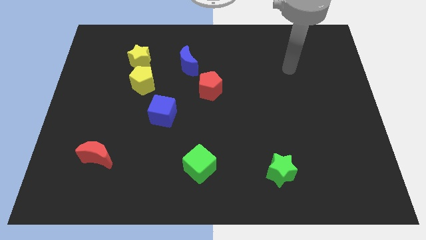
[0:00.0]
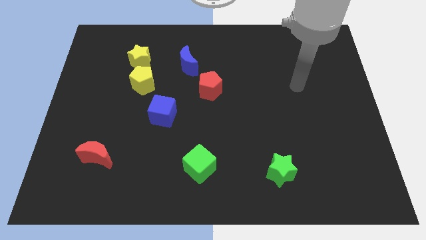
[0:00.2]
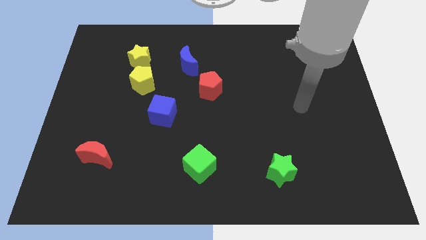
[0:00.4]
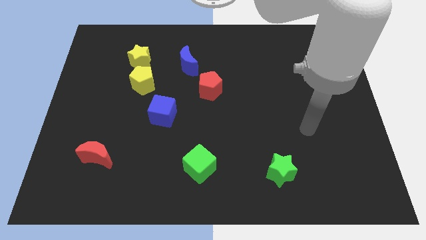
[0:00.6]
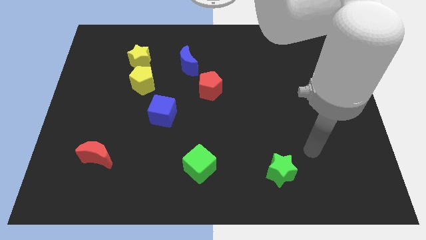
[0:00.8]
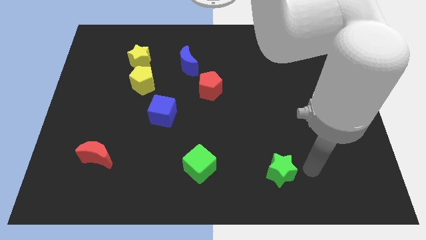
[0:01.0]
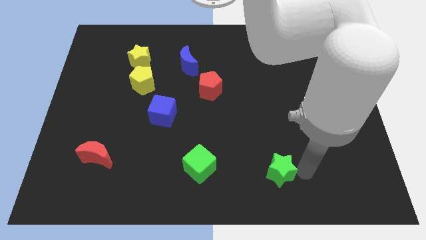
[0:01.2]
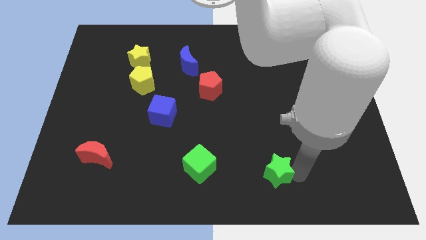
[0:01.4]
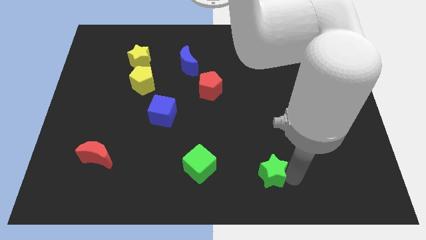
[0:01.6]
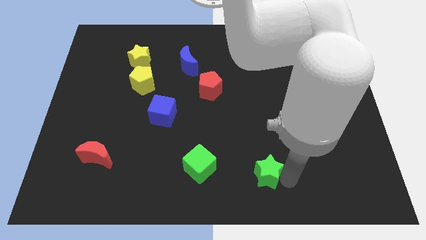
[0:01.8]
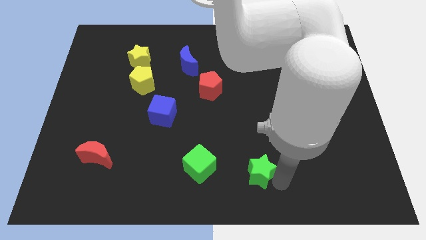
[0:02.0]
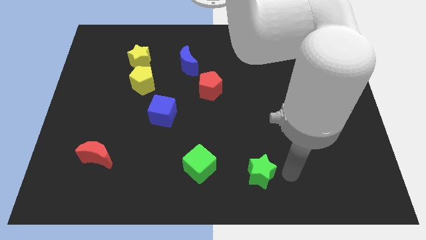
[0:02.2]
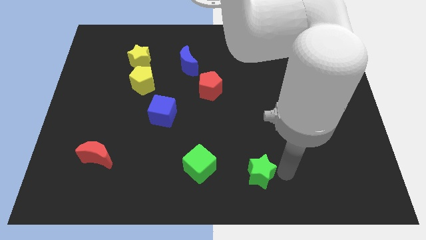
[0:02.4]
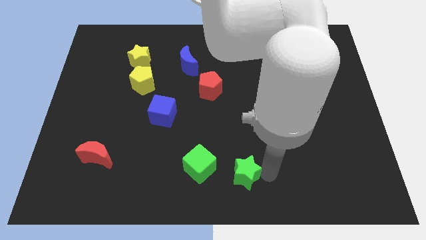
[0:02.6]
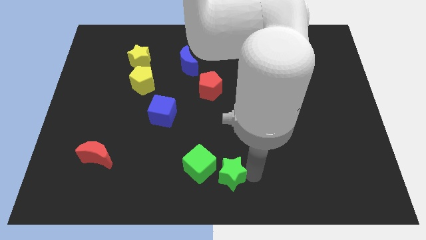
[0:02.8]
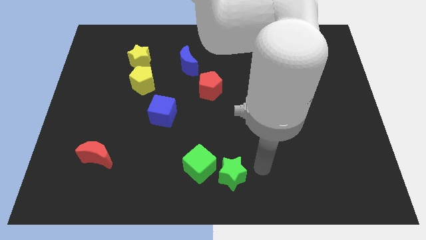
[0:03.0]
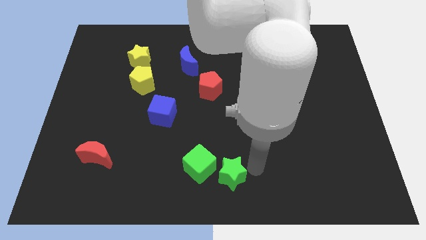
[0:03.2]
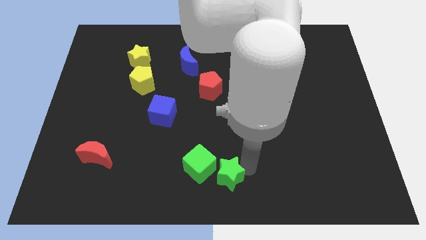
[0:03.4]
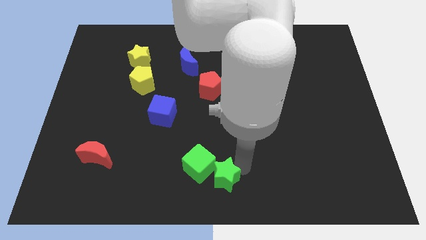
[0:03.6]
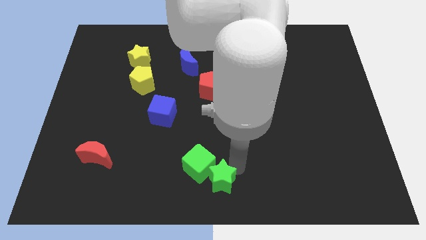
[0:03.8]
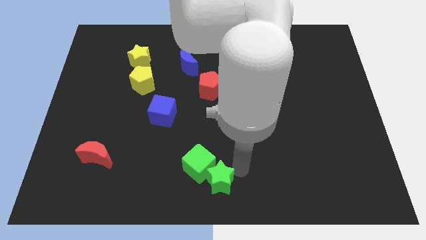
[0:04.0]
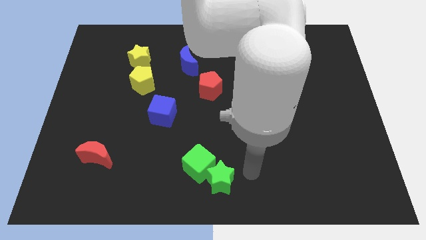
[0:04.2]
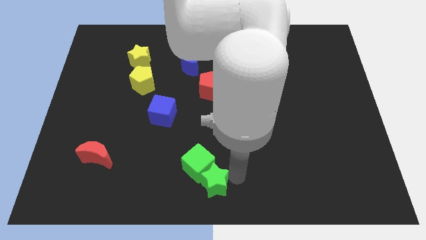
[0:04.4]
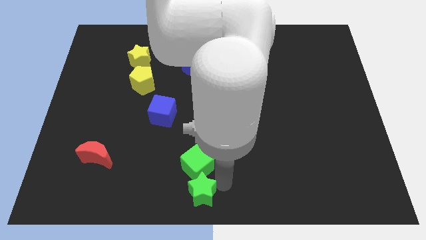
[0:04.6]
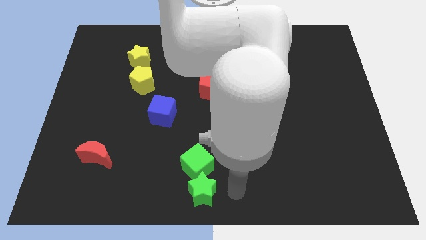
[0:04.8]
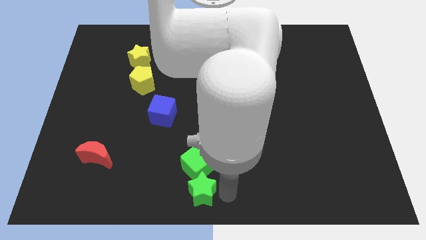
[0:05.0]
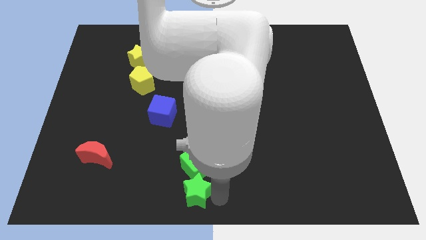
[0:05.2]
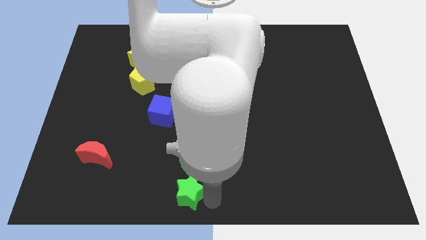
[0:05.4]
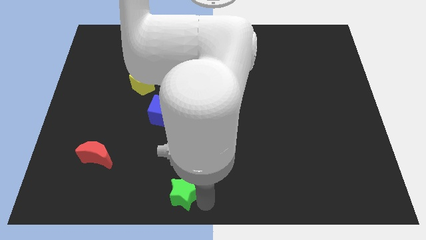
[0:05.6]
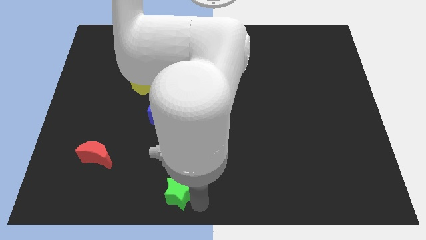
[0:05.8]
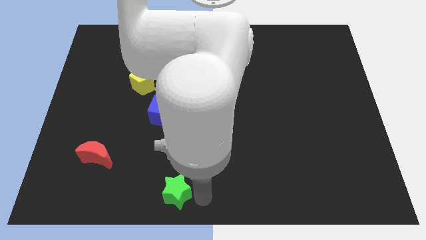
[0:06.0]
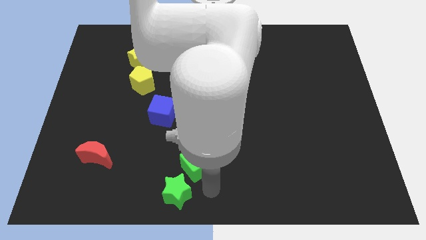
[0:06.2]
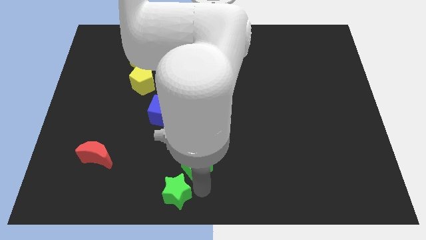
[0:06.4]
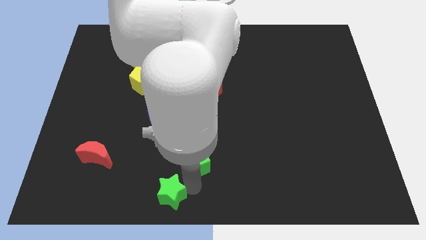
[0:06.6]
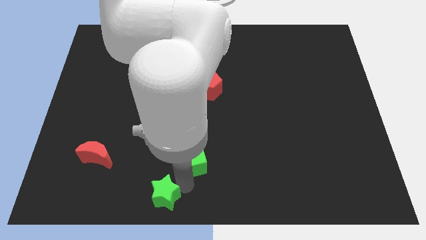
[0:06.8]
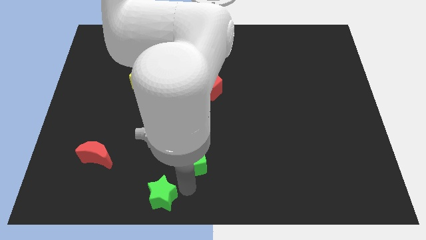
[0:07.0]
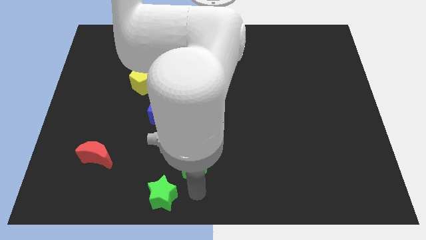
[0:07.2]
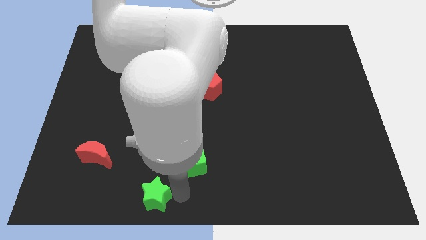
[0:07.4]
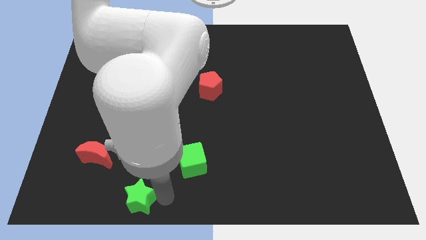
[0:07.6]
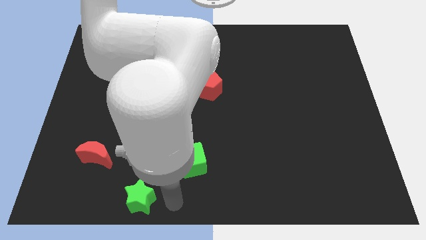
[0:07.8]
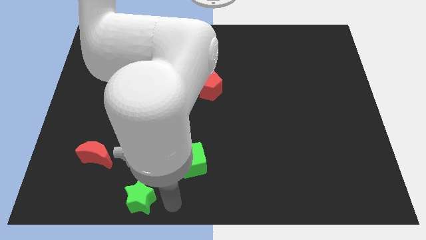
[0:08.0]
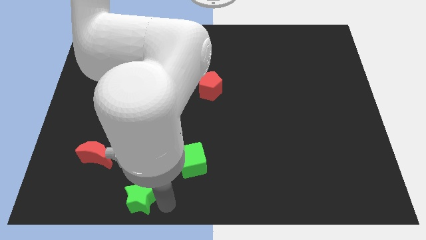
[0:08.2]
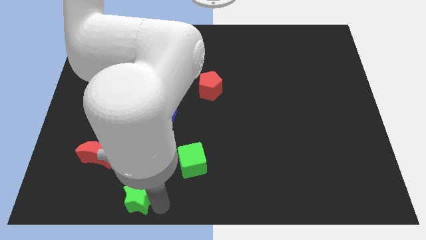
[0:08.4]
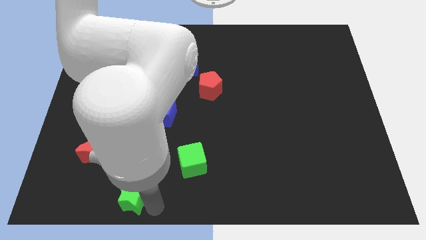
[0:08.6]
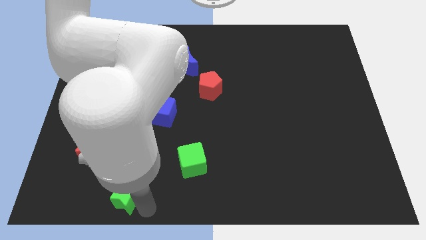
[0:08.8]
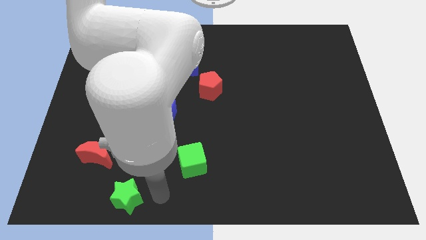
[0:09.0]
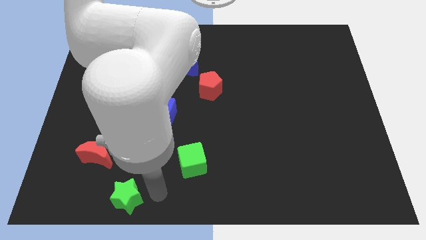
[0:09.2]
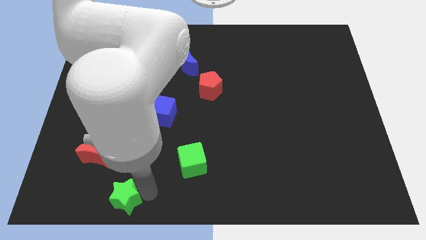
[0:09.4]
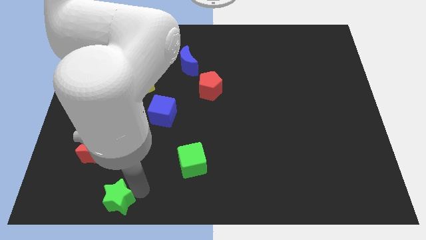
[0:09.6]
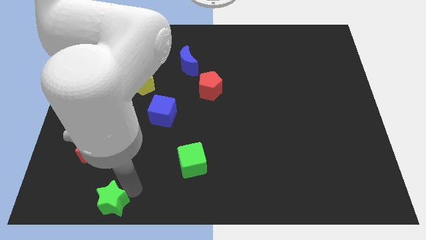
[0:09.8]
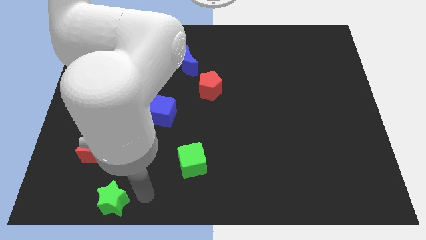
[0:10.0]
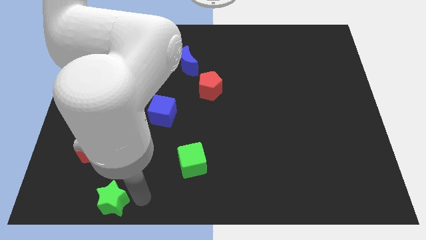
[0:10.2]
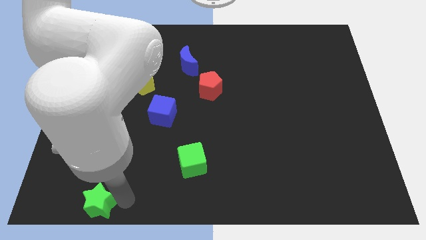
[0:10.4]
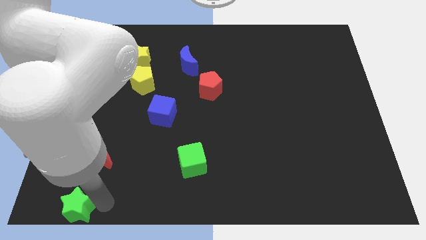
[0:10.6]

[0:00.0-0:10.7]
put the green star to the bottom left of the board

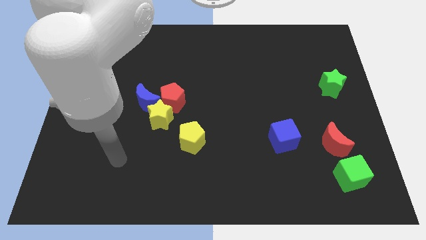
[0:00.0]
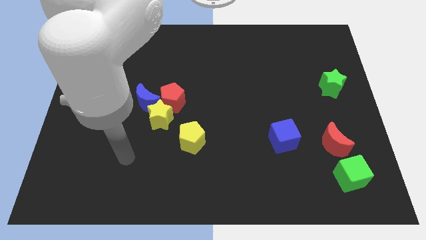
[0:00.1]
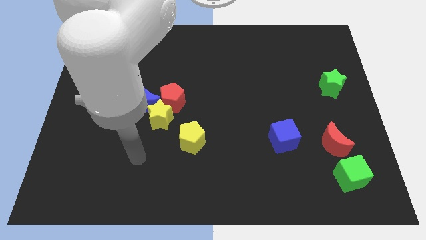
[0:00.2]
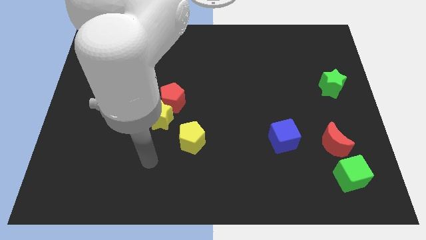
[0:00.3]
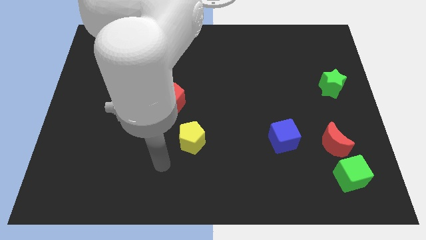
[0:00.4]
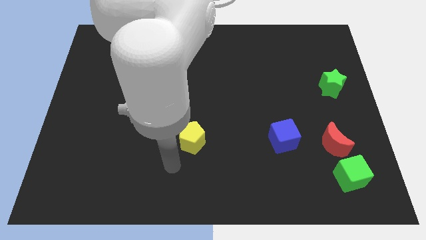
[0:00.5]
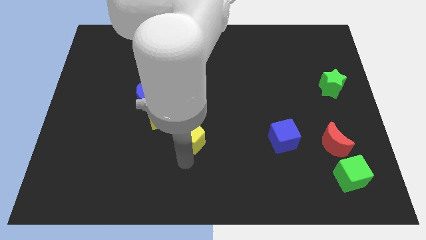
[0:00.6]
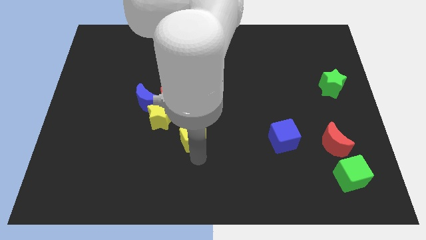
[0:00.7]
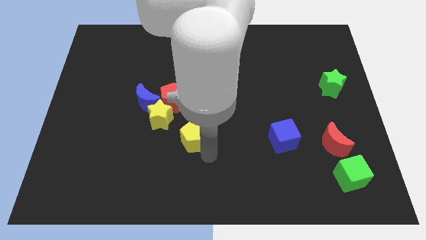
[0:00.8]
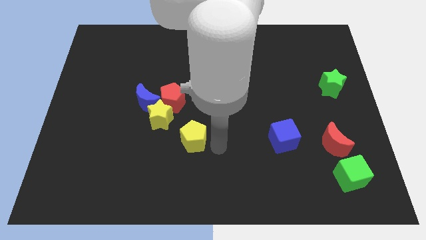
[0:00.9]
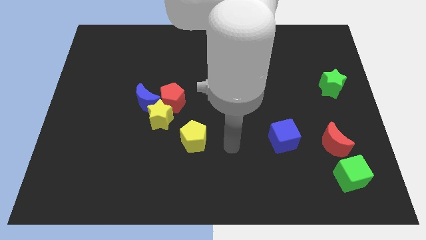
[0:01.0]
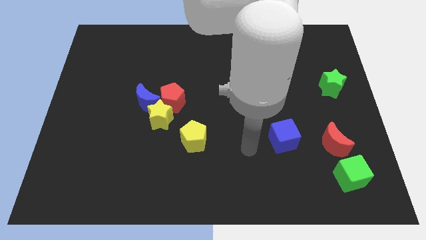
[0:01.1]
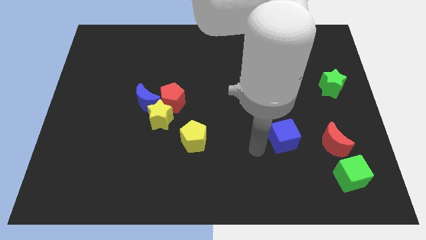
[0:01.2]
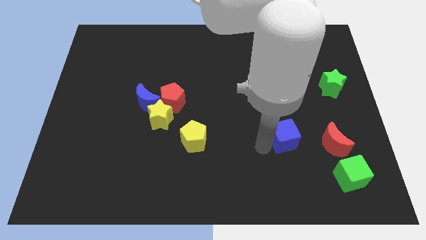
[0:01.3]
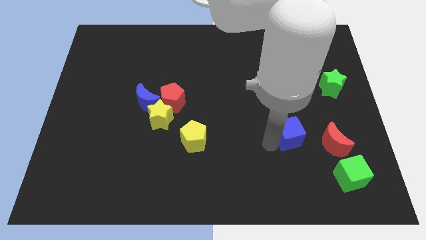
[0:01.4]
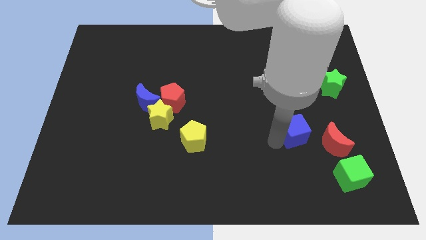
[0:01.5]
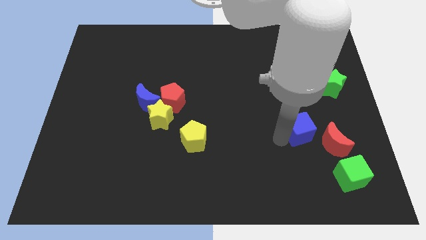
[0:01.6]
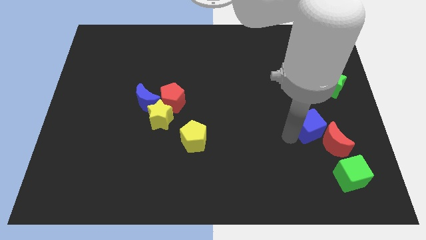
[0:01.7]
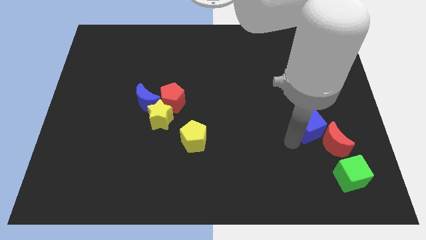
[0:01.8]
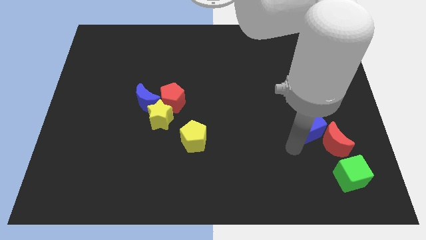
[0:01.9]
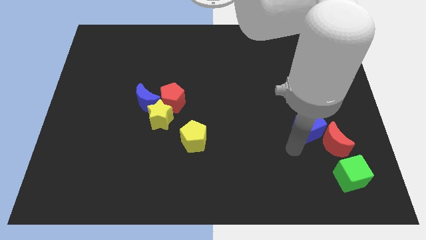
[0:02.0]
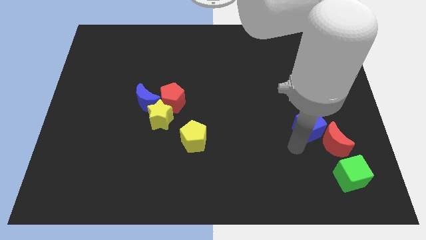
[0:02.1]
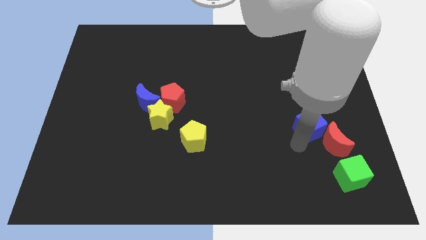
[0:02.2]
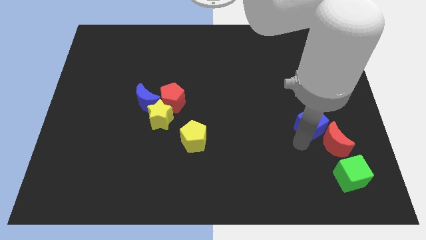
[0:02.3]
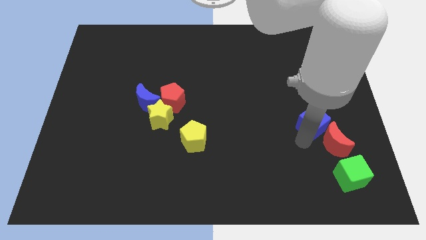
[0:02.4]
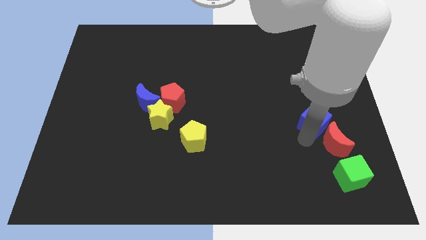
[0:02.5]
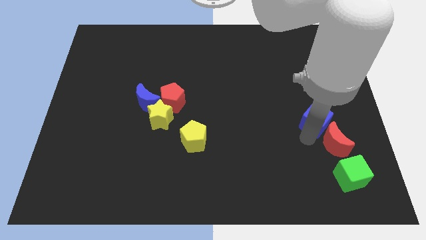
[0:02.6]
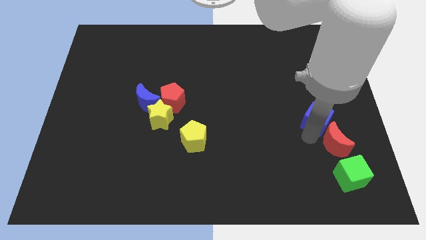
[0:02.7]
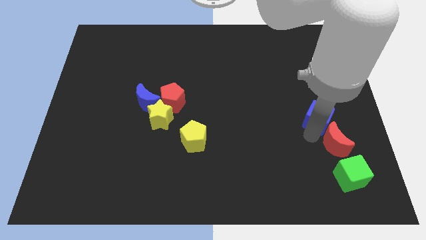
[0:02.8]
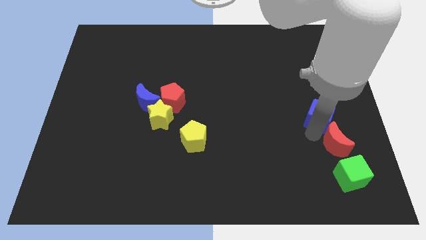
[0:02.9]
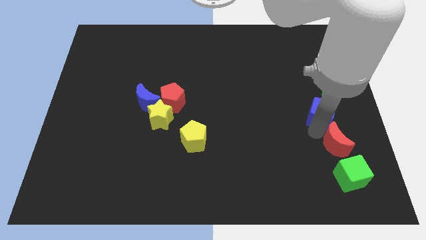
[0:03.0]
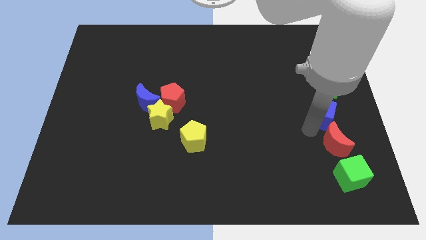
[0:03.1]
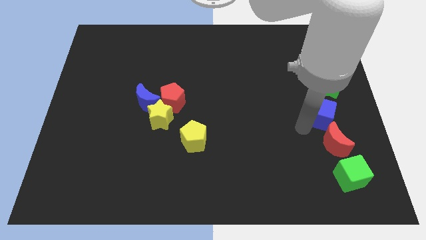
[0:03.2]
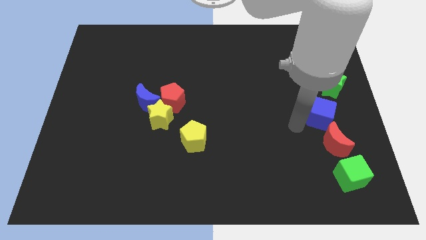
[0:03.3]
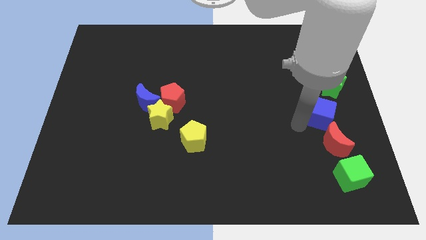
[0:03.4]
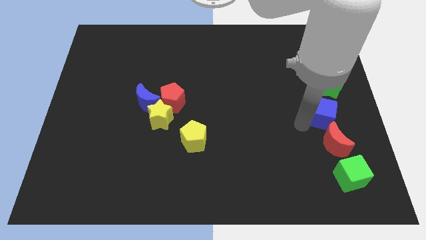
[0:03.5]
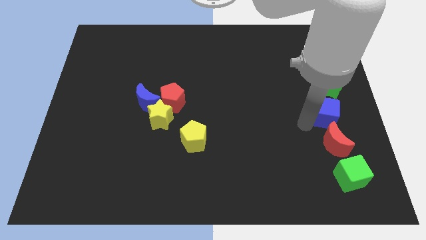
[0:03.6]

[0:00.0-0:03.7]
move the blue cube to the right side
